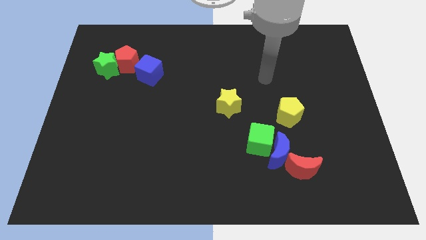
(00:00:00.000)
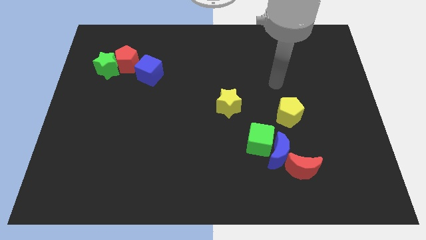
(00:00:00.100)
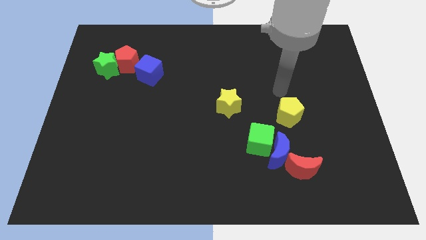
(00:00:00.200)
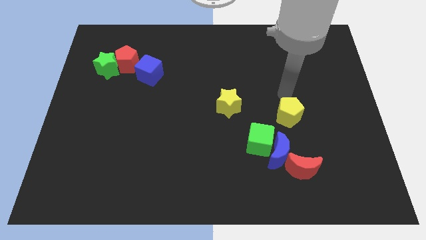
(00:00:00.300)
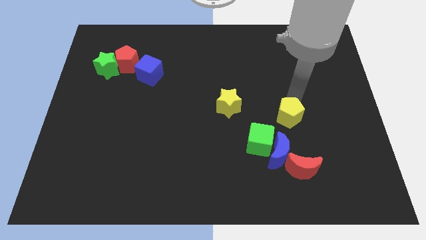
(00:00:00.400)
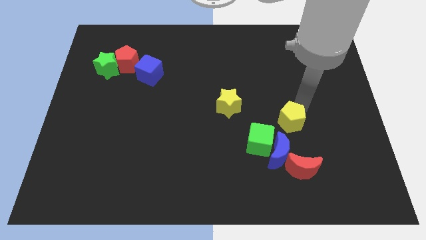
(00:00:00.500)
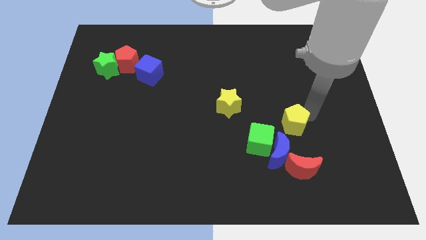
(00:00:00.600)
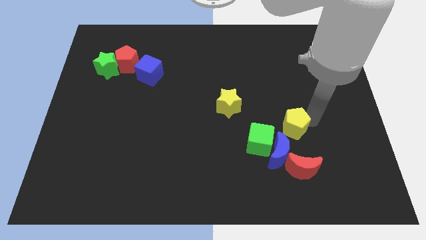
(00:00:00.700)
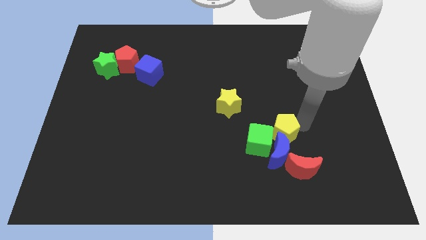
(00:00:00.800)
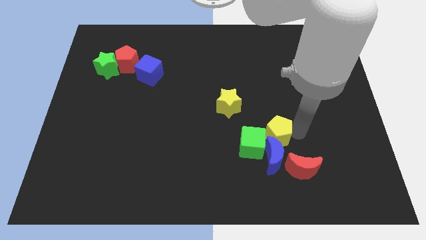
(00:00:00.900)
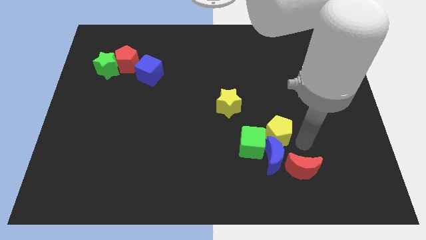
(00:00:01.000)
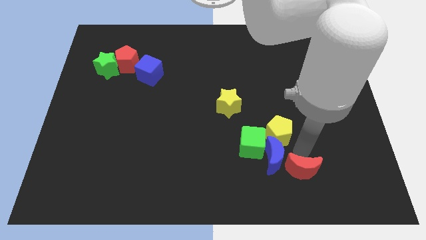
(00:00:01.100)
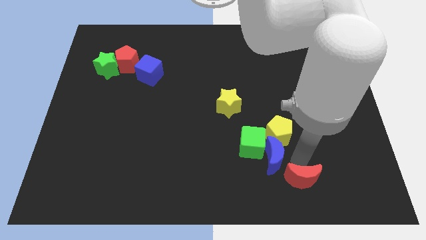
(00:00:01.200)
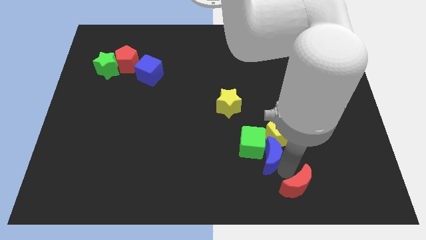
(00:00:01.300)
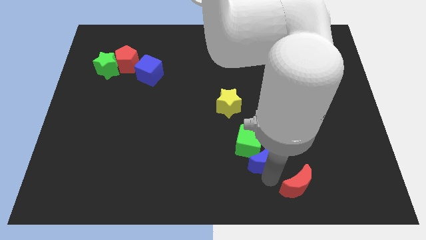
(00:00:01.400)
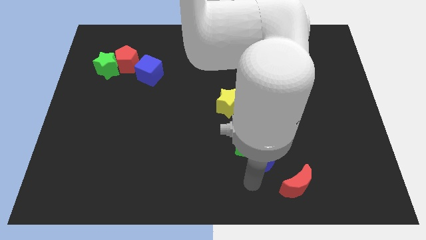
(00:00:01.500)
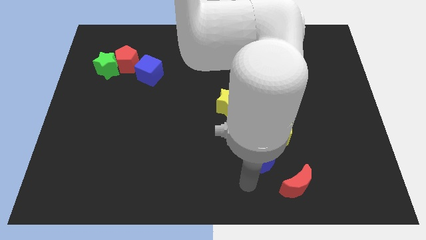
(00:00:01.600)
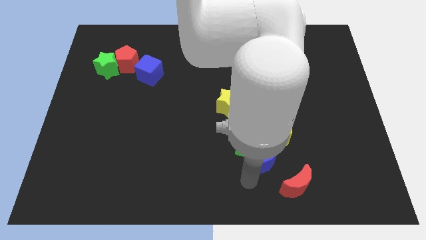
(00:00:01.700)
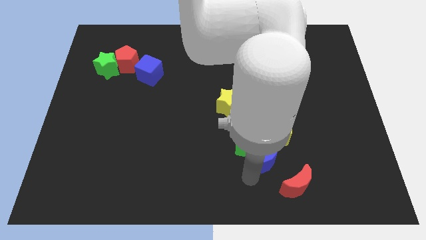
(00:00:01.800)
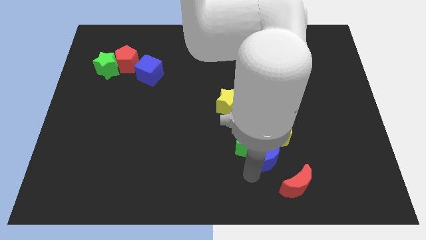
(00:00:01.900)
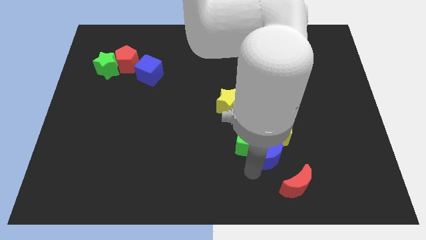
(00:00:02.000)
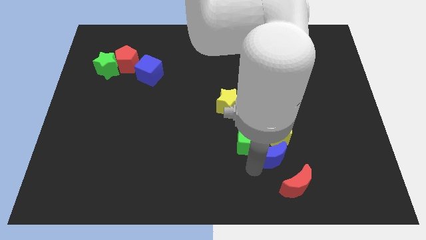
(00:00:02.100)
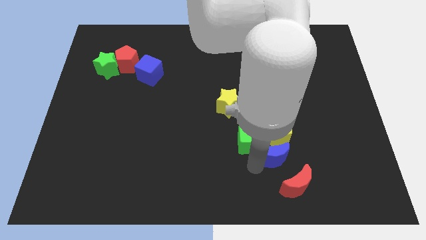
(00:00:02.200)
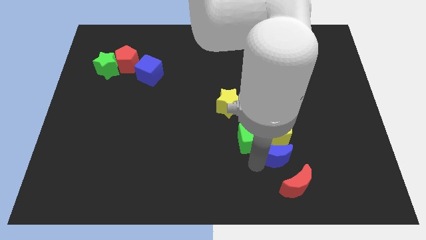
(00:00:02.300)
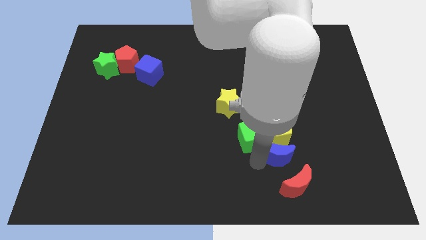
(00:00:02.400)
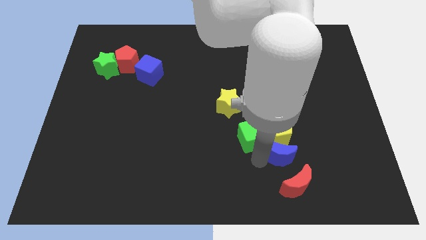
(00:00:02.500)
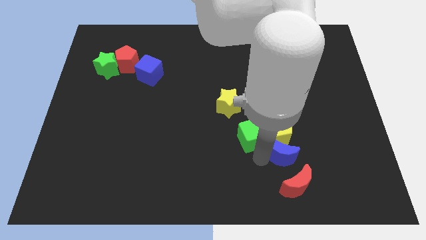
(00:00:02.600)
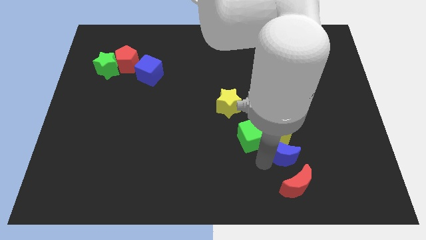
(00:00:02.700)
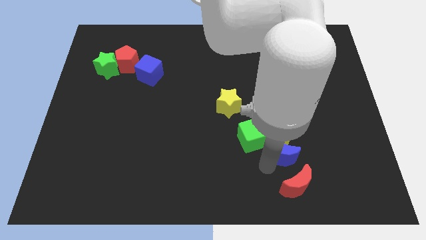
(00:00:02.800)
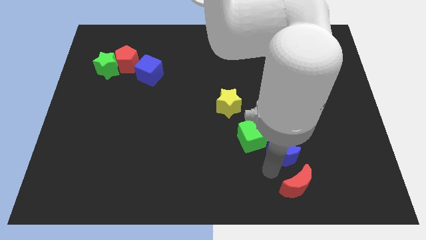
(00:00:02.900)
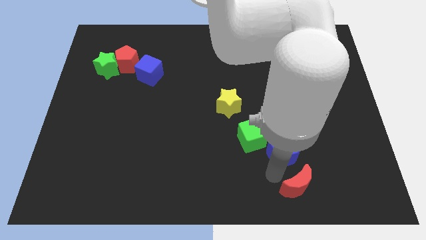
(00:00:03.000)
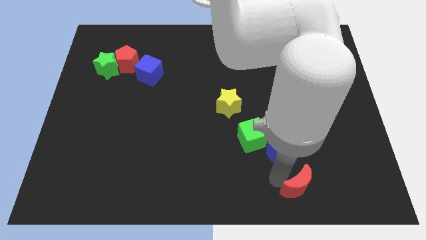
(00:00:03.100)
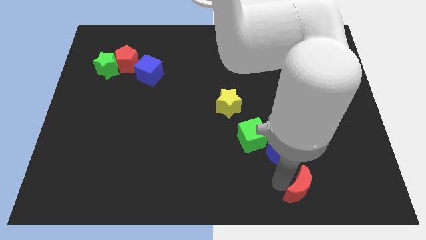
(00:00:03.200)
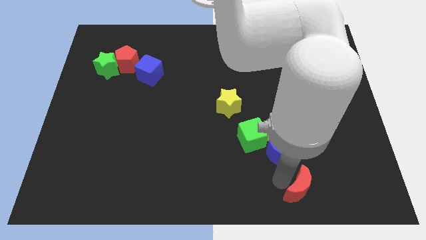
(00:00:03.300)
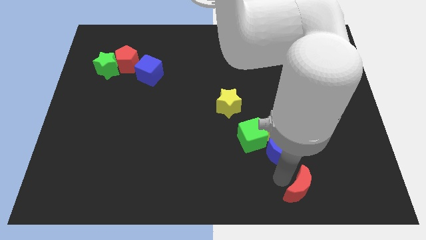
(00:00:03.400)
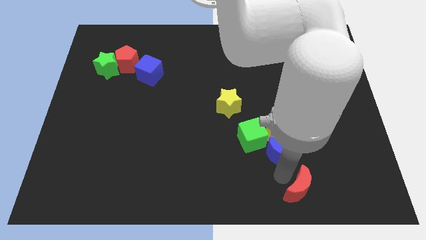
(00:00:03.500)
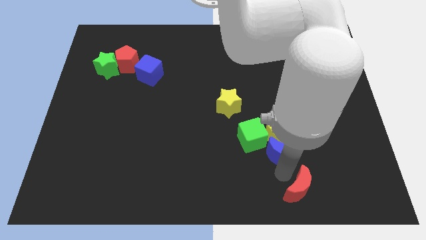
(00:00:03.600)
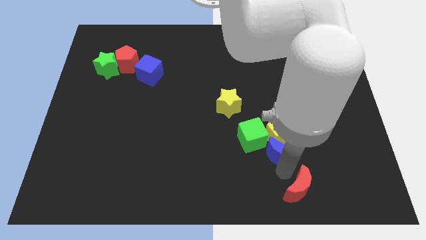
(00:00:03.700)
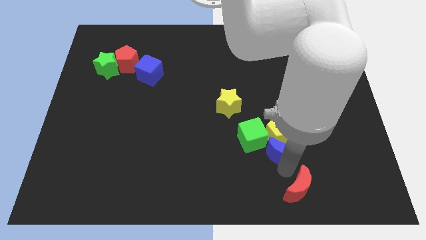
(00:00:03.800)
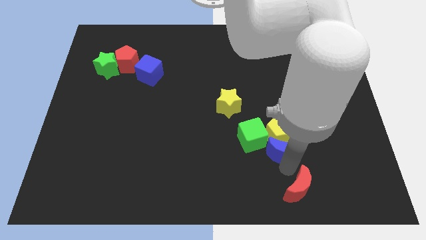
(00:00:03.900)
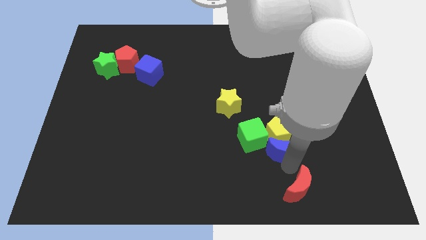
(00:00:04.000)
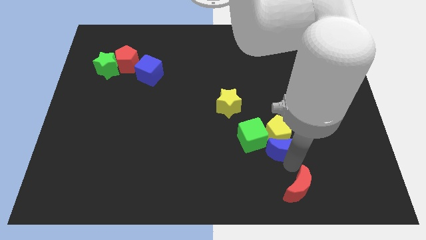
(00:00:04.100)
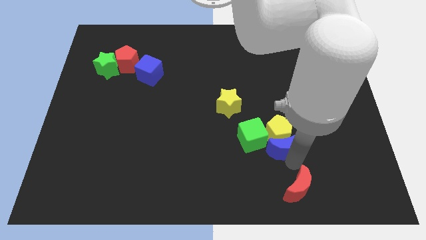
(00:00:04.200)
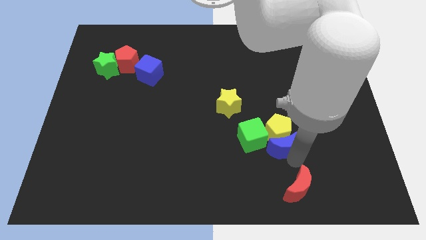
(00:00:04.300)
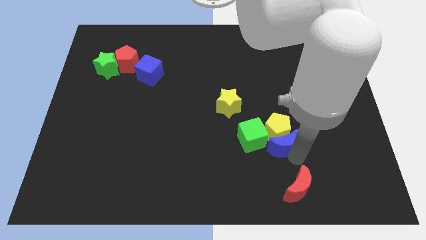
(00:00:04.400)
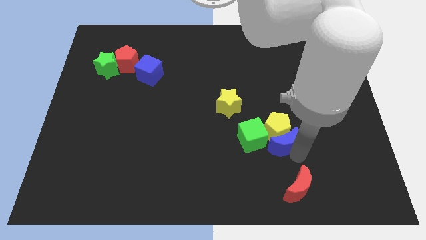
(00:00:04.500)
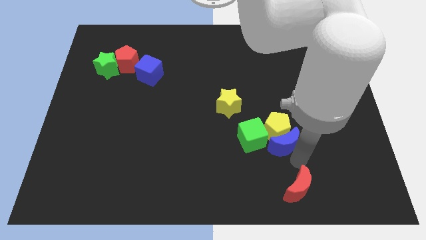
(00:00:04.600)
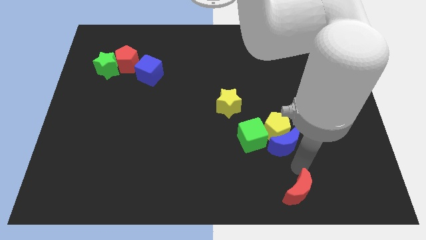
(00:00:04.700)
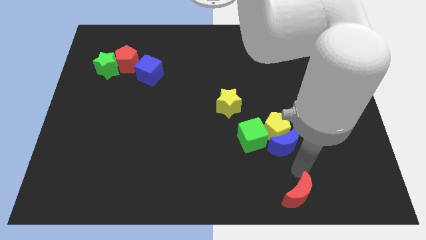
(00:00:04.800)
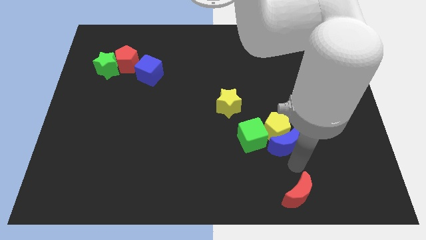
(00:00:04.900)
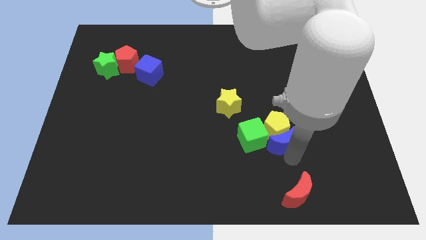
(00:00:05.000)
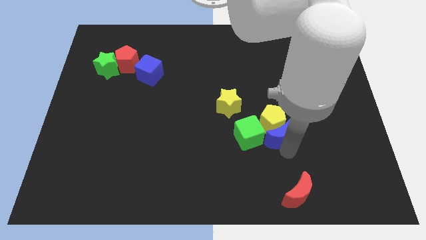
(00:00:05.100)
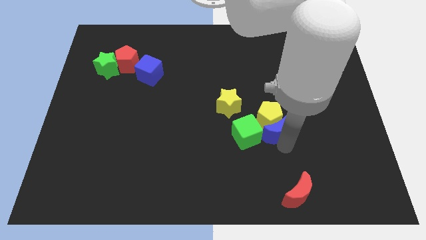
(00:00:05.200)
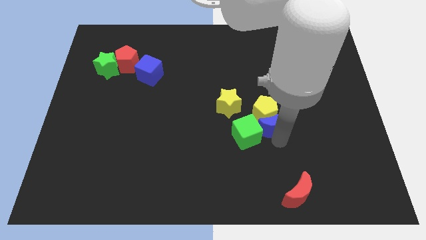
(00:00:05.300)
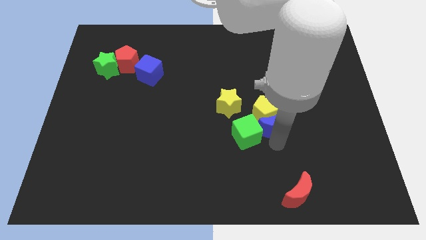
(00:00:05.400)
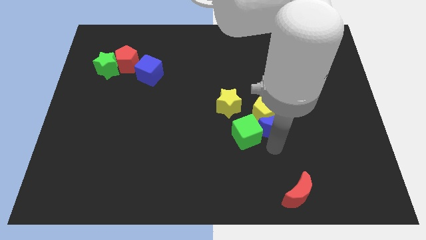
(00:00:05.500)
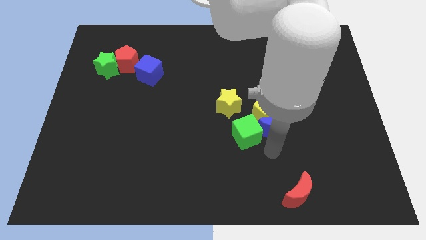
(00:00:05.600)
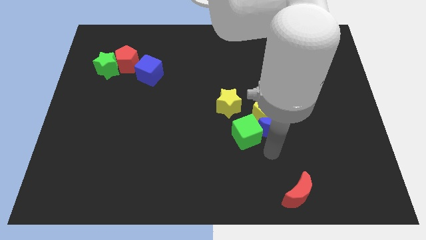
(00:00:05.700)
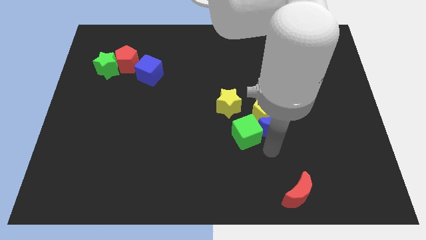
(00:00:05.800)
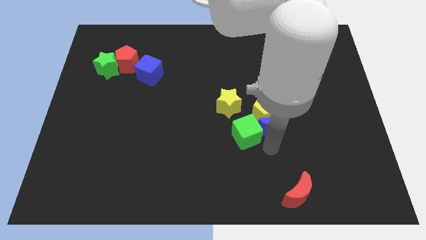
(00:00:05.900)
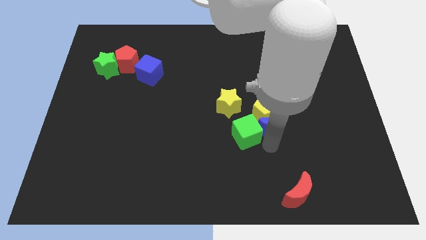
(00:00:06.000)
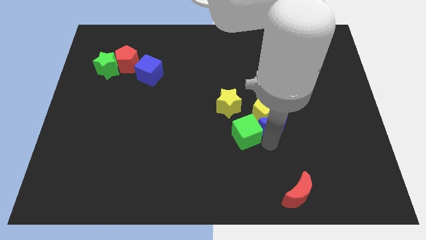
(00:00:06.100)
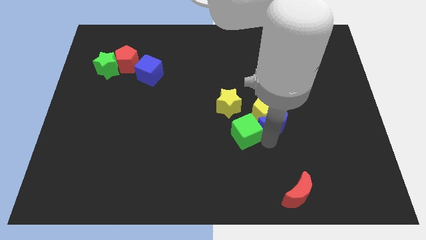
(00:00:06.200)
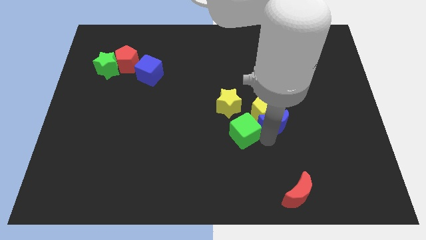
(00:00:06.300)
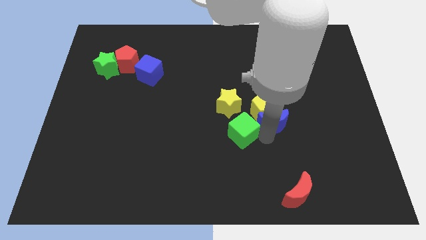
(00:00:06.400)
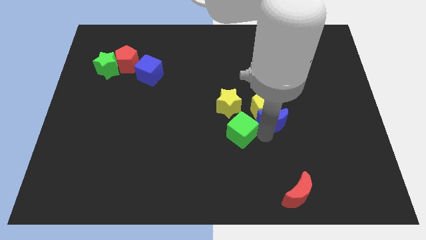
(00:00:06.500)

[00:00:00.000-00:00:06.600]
separate the blue moon from the green cube and red moon

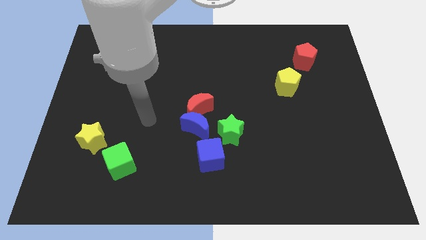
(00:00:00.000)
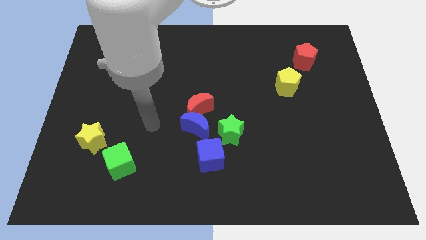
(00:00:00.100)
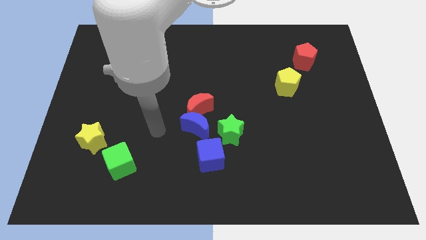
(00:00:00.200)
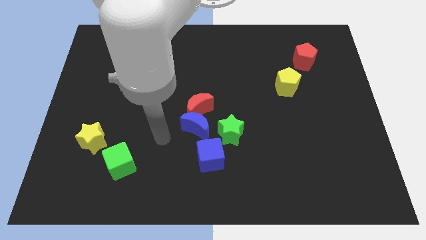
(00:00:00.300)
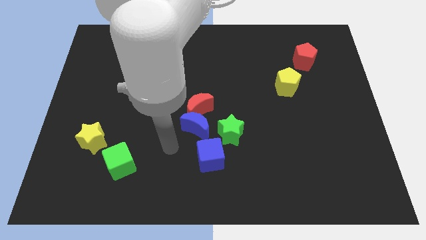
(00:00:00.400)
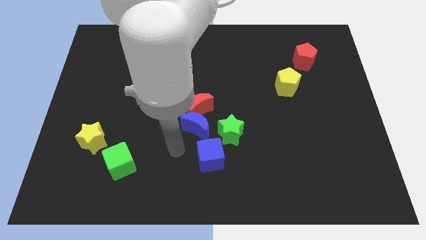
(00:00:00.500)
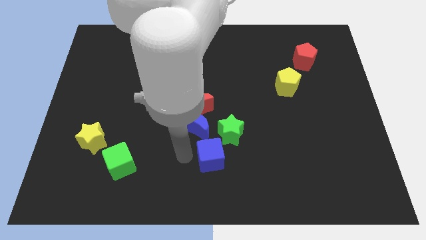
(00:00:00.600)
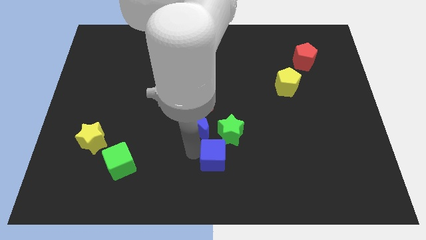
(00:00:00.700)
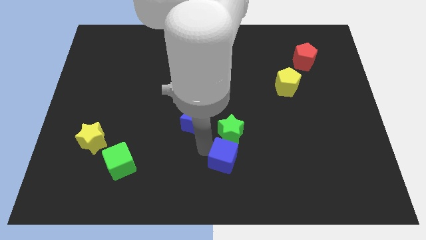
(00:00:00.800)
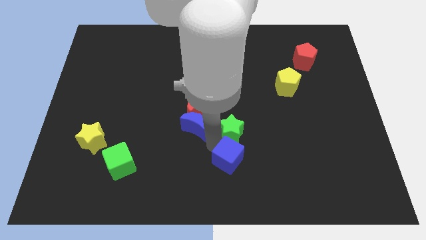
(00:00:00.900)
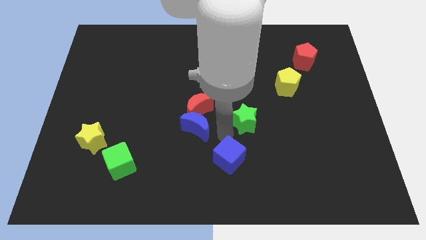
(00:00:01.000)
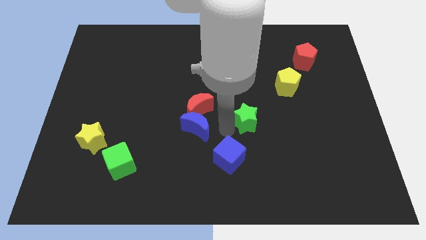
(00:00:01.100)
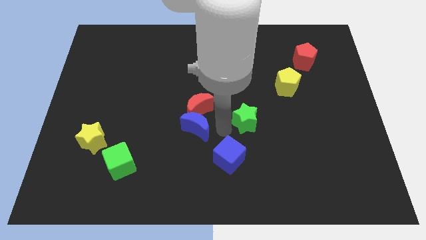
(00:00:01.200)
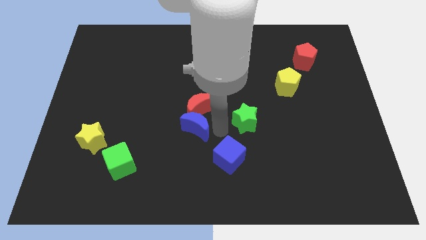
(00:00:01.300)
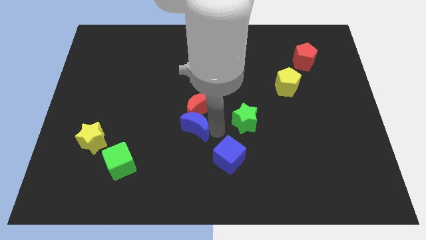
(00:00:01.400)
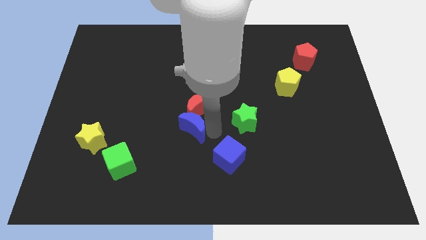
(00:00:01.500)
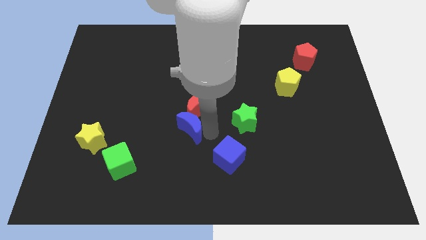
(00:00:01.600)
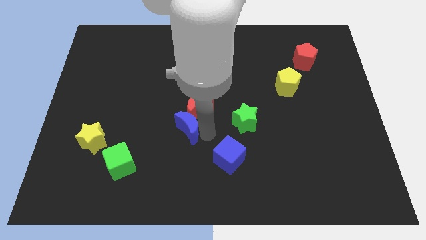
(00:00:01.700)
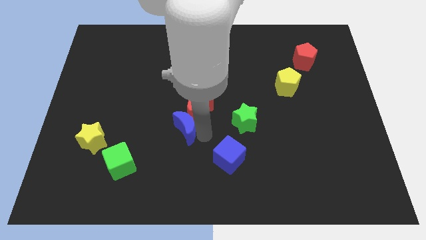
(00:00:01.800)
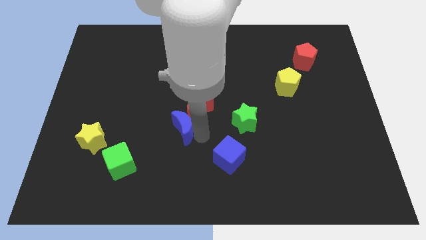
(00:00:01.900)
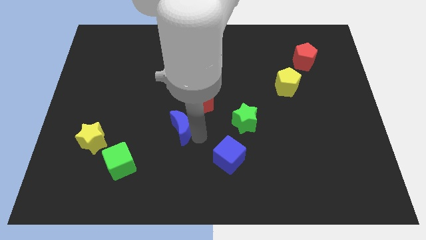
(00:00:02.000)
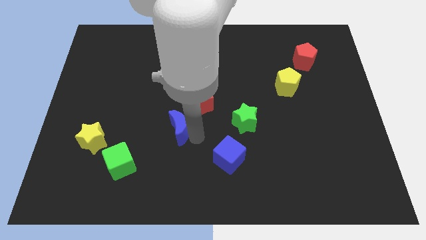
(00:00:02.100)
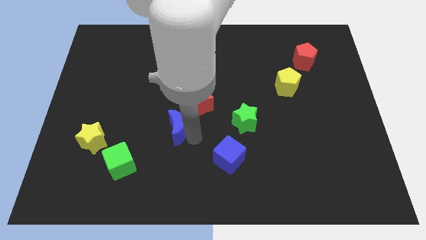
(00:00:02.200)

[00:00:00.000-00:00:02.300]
separate the blue moon from the clump

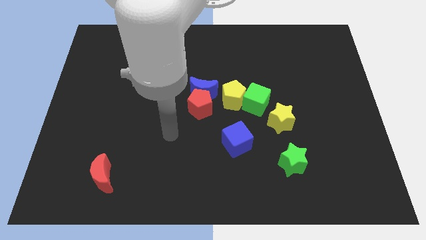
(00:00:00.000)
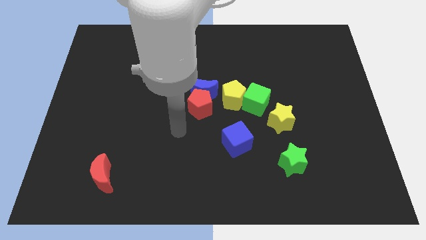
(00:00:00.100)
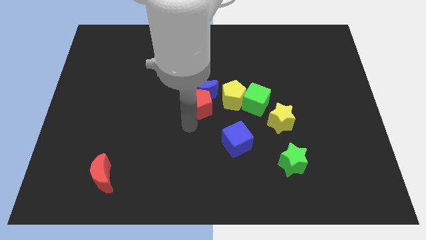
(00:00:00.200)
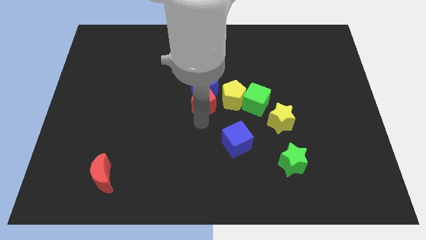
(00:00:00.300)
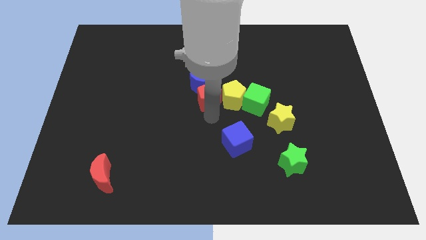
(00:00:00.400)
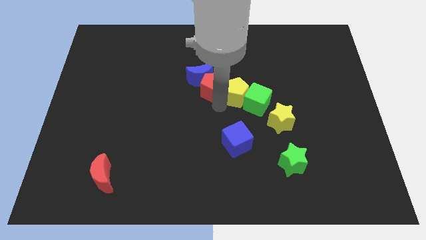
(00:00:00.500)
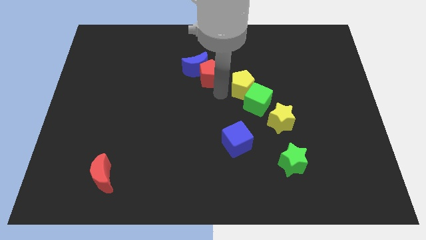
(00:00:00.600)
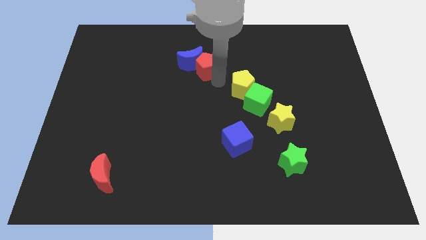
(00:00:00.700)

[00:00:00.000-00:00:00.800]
pull the blue moon apart from the red pentagon and yellow pentagon
